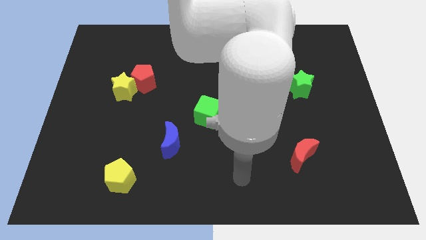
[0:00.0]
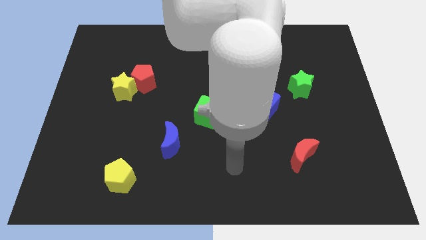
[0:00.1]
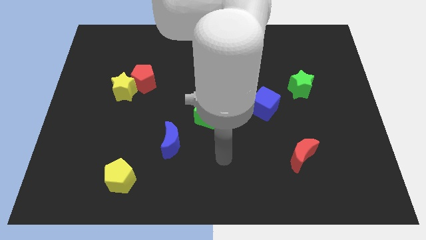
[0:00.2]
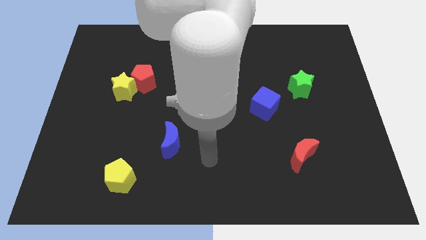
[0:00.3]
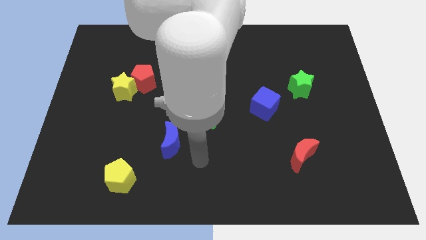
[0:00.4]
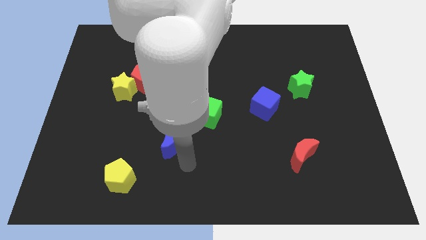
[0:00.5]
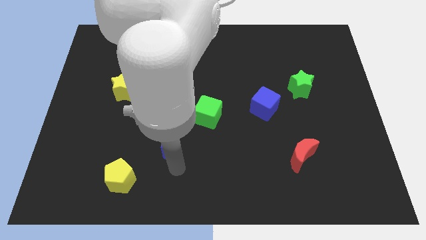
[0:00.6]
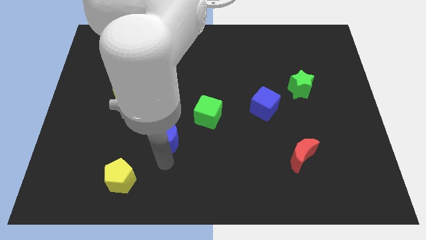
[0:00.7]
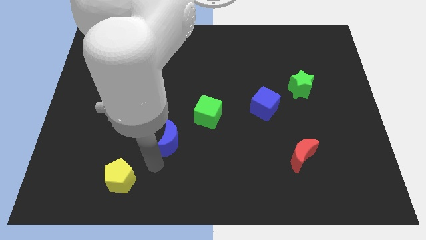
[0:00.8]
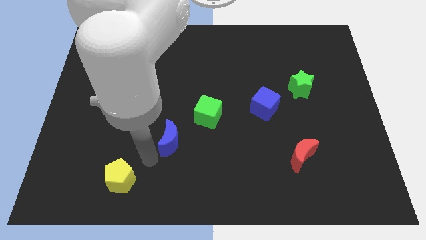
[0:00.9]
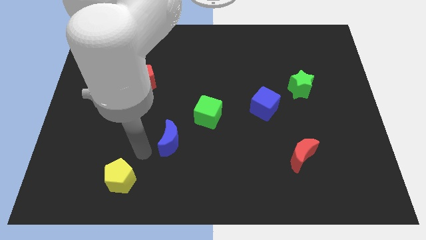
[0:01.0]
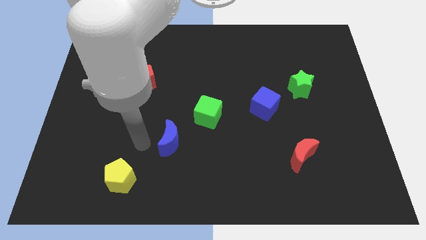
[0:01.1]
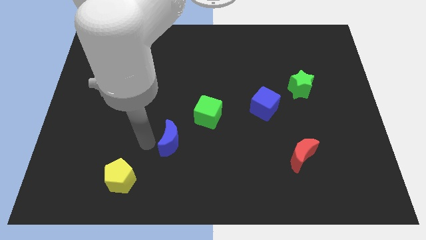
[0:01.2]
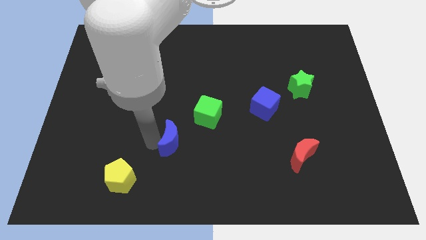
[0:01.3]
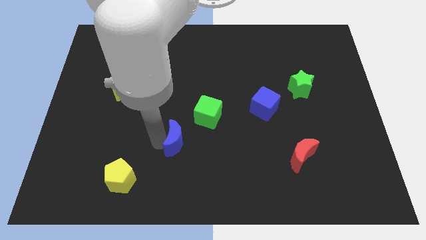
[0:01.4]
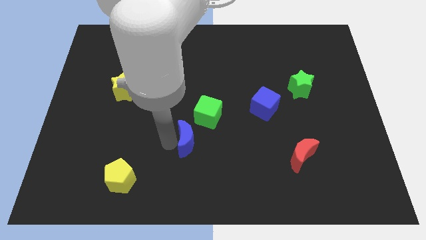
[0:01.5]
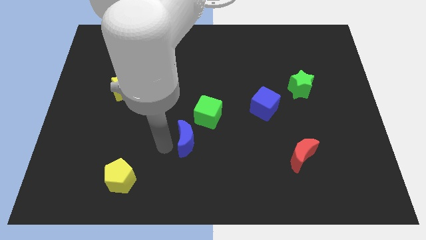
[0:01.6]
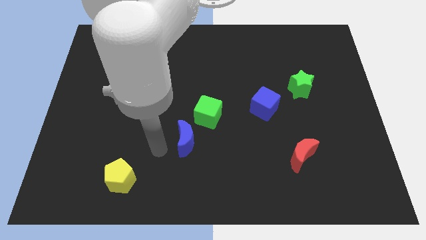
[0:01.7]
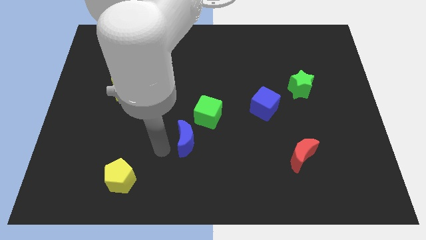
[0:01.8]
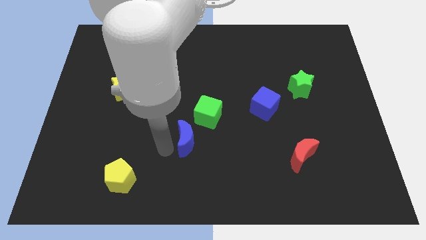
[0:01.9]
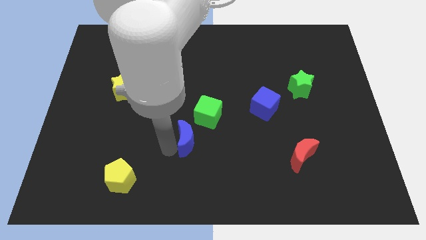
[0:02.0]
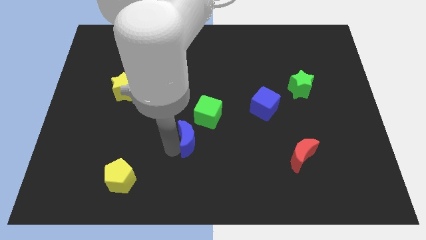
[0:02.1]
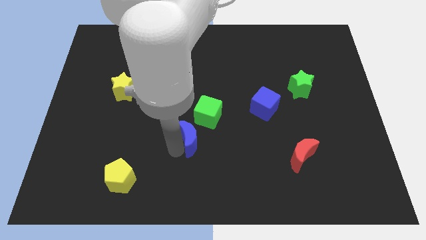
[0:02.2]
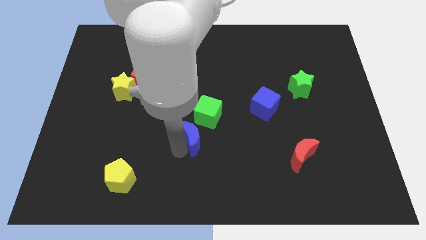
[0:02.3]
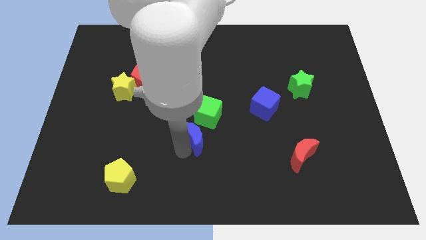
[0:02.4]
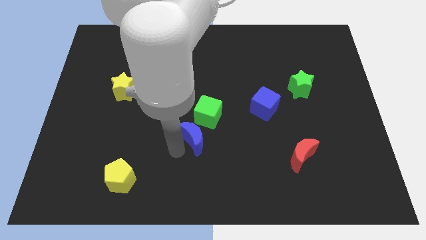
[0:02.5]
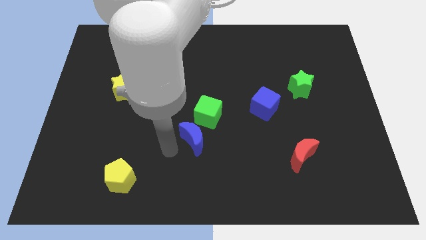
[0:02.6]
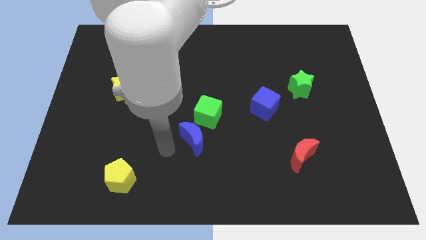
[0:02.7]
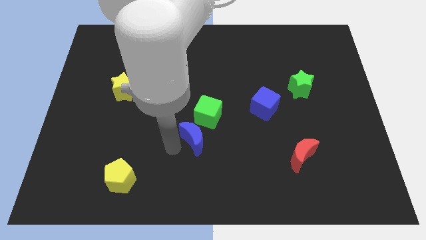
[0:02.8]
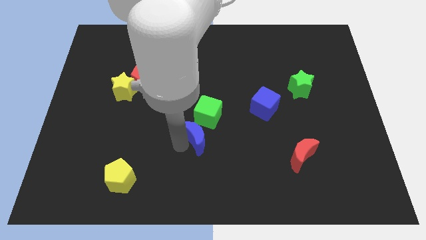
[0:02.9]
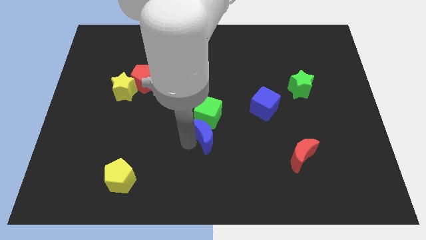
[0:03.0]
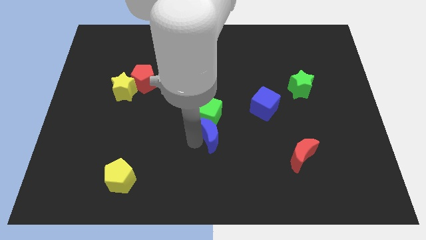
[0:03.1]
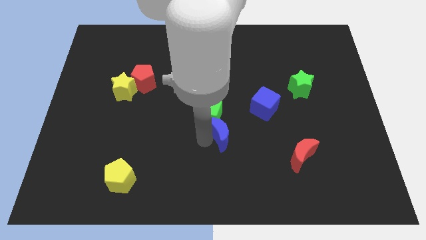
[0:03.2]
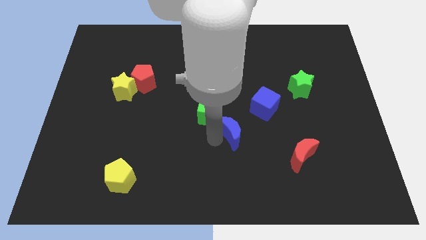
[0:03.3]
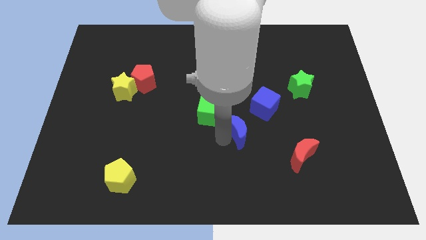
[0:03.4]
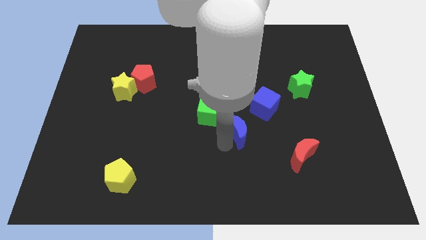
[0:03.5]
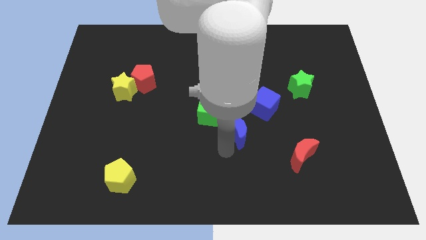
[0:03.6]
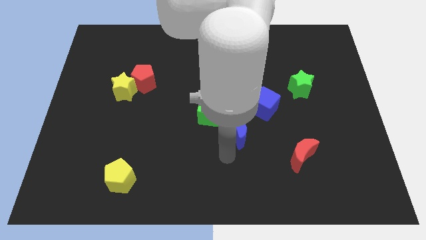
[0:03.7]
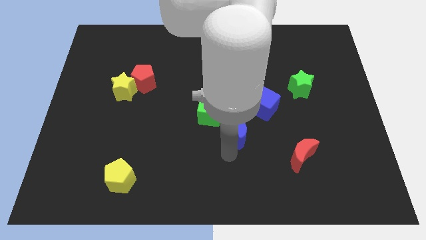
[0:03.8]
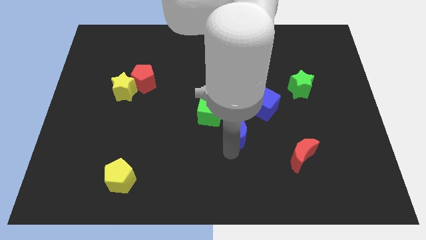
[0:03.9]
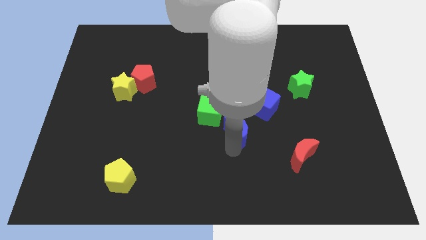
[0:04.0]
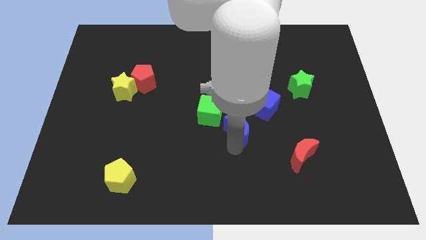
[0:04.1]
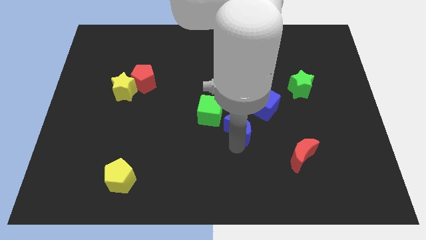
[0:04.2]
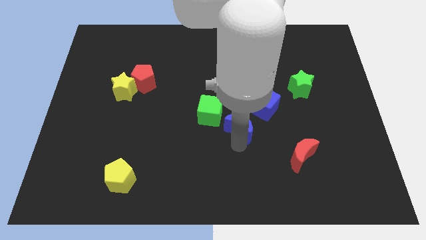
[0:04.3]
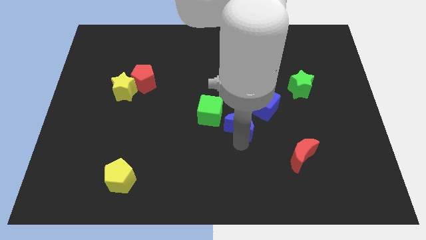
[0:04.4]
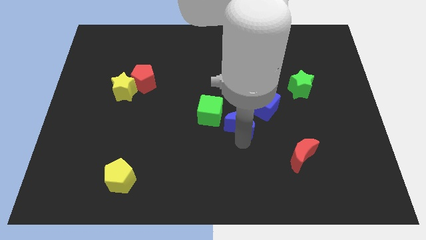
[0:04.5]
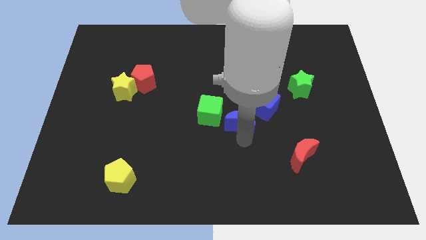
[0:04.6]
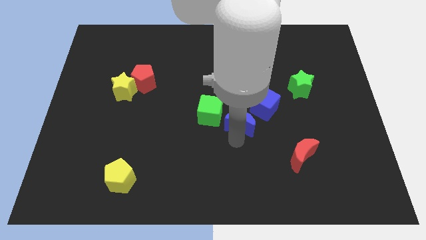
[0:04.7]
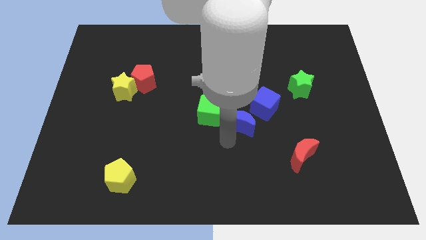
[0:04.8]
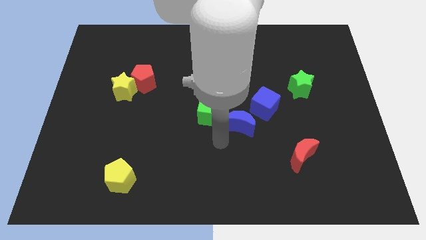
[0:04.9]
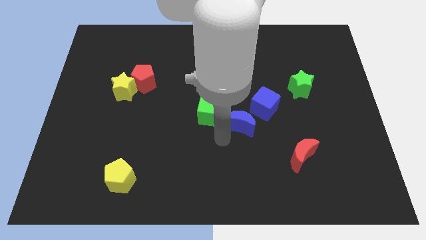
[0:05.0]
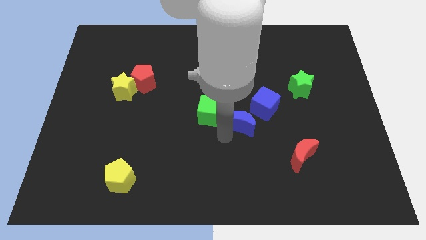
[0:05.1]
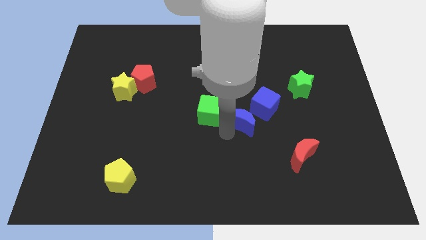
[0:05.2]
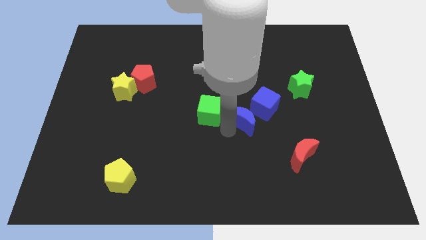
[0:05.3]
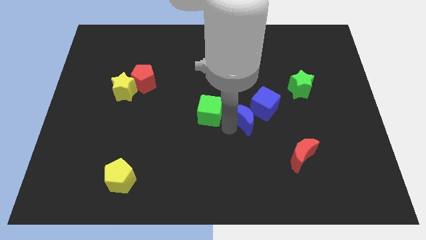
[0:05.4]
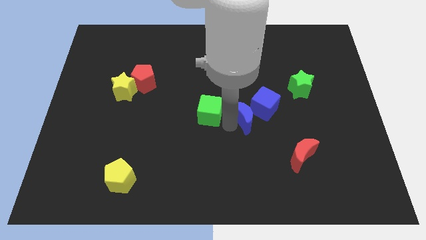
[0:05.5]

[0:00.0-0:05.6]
slide the blue moon towards the blue cube

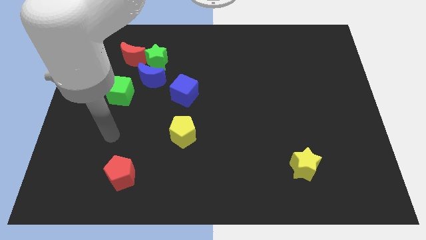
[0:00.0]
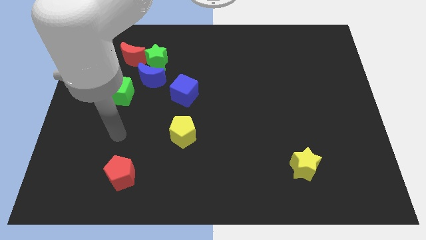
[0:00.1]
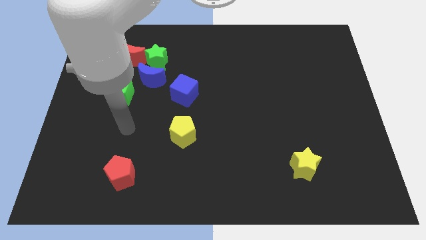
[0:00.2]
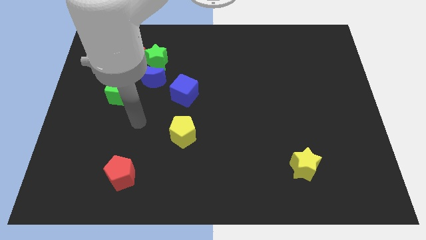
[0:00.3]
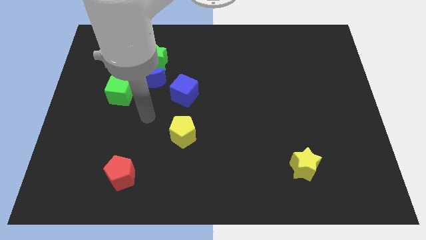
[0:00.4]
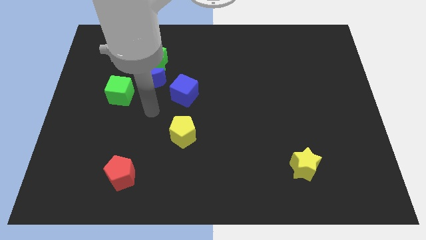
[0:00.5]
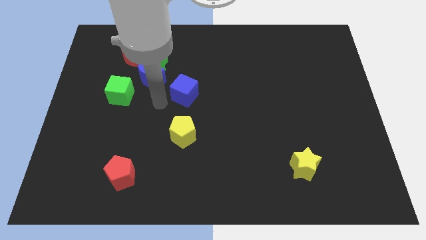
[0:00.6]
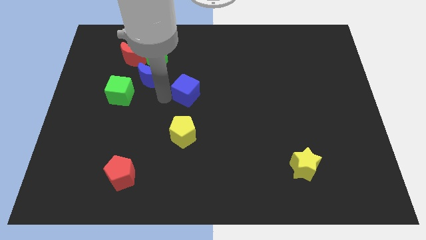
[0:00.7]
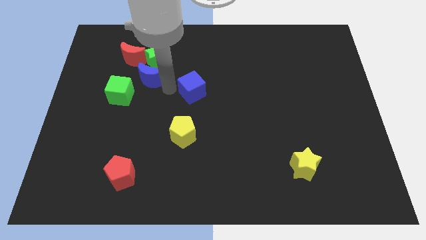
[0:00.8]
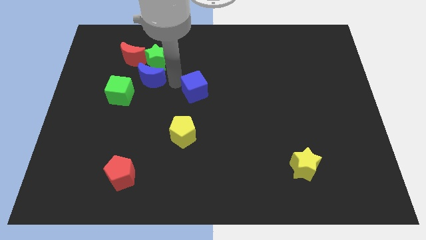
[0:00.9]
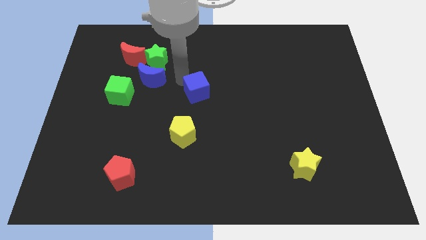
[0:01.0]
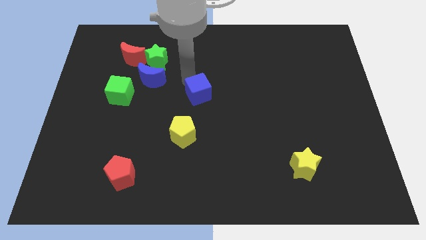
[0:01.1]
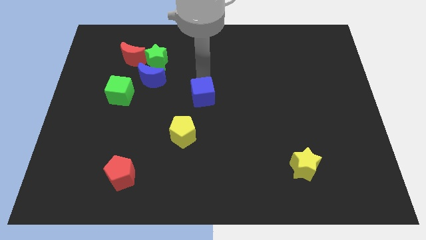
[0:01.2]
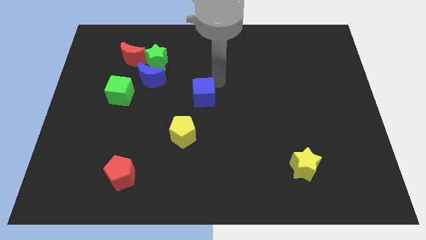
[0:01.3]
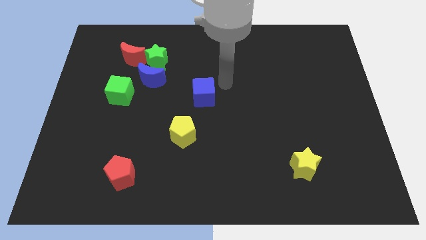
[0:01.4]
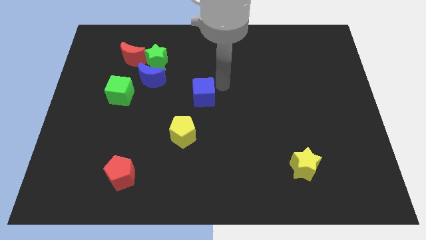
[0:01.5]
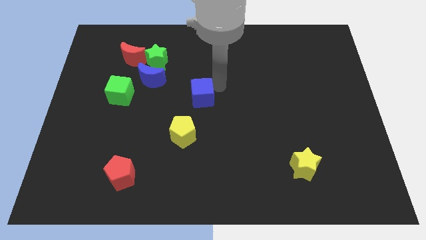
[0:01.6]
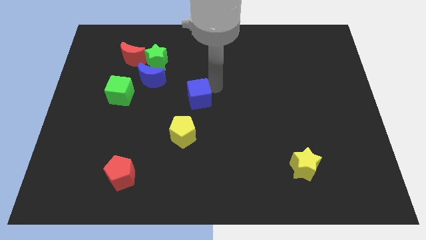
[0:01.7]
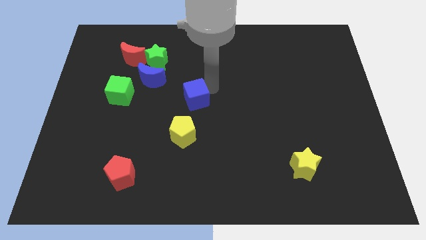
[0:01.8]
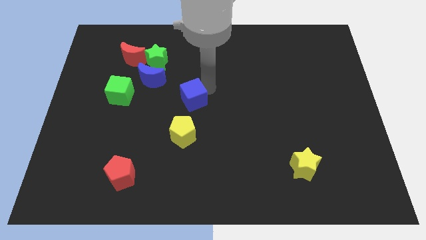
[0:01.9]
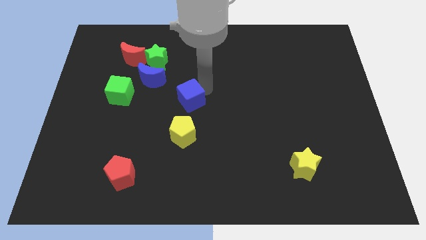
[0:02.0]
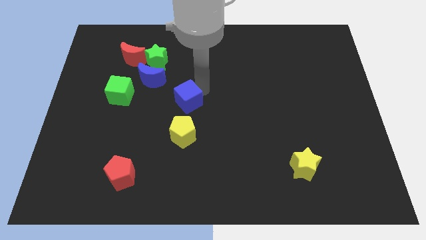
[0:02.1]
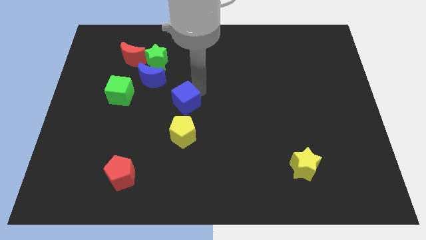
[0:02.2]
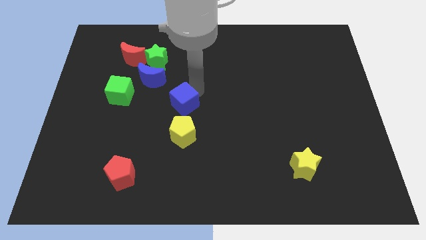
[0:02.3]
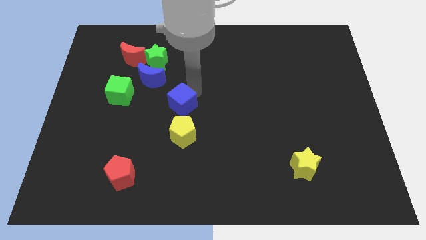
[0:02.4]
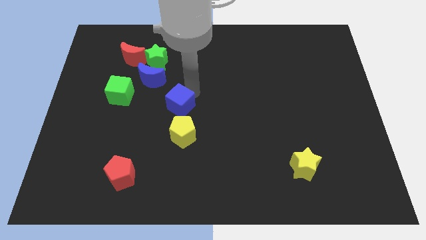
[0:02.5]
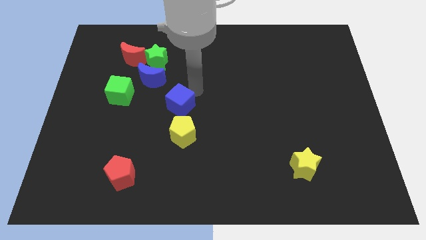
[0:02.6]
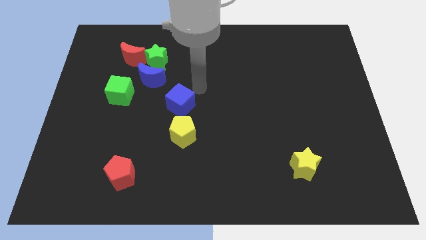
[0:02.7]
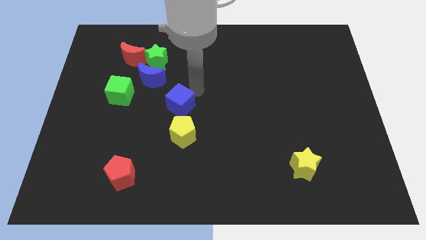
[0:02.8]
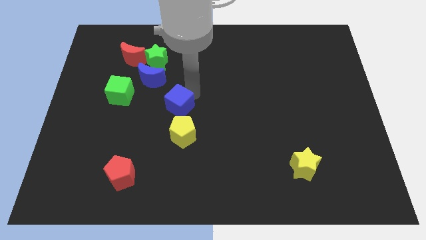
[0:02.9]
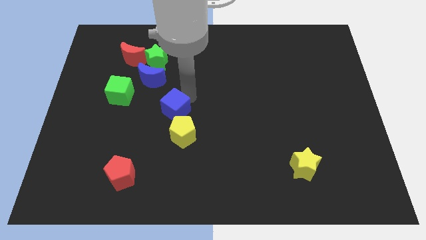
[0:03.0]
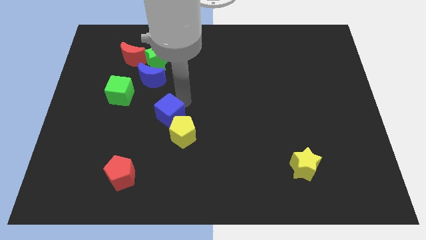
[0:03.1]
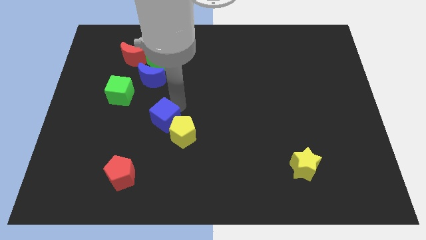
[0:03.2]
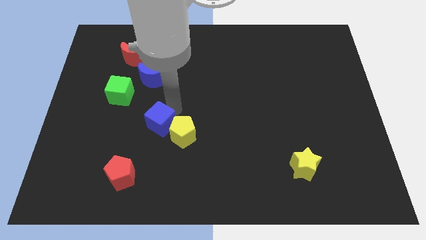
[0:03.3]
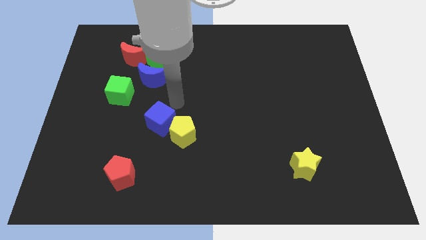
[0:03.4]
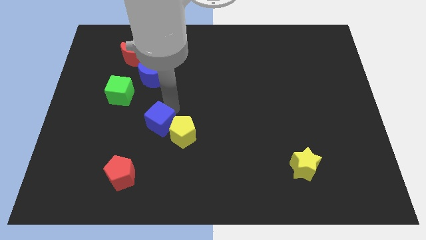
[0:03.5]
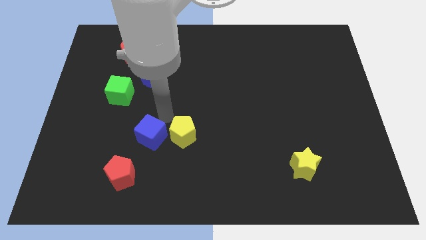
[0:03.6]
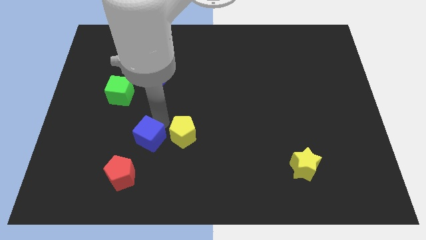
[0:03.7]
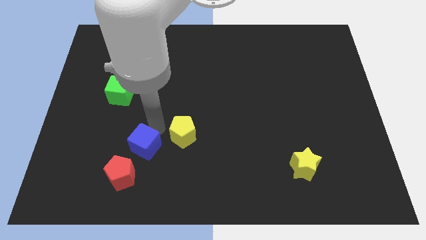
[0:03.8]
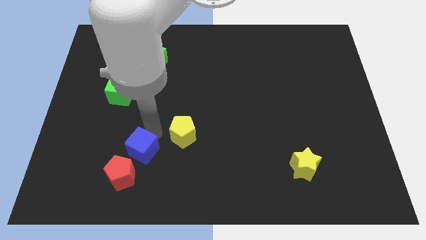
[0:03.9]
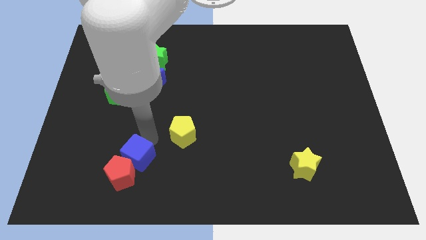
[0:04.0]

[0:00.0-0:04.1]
move the blue cube close to the red pentagon
